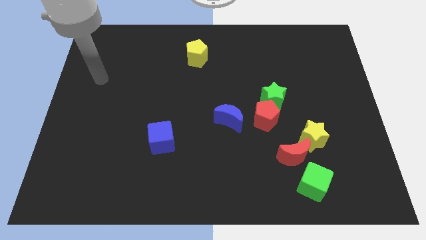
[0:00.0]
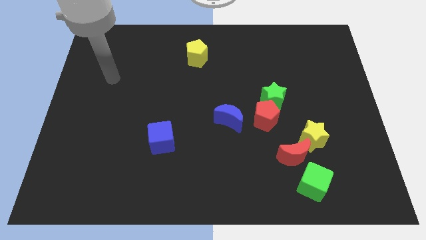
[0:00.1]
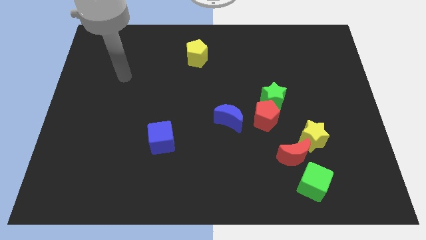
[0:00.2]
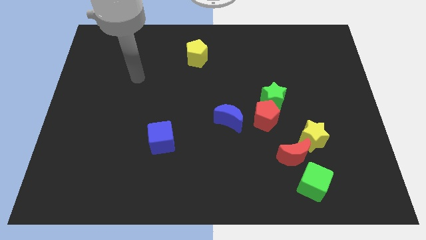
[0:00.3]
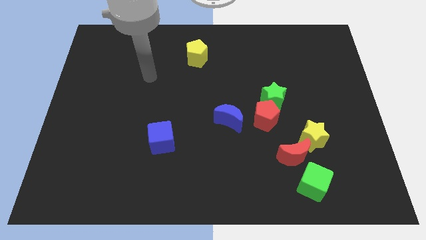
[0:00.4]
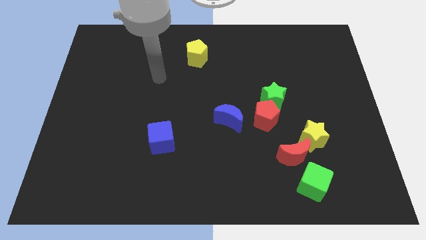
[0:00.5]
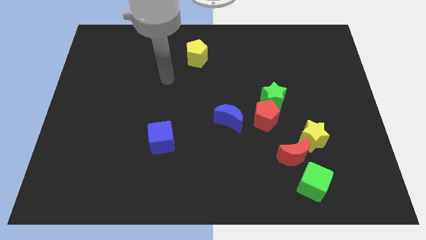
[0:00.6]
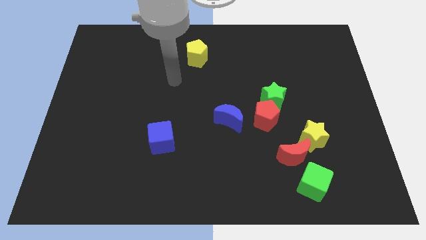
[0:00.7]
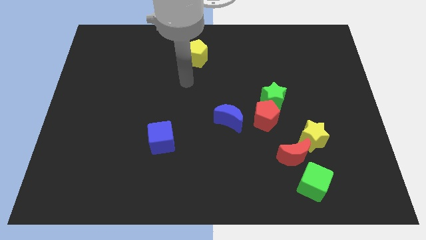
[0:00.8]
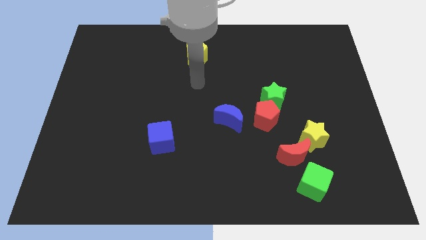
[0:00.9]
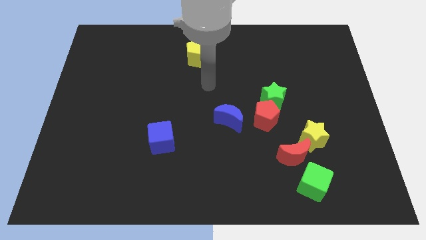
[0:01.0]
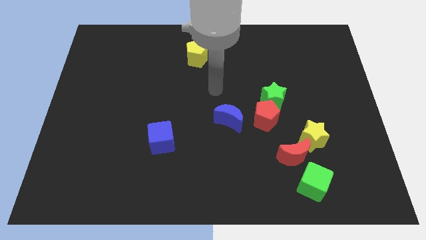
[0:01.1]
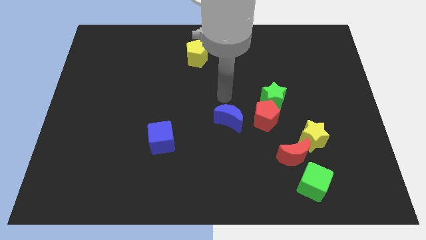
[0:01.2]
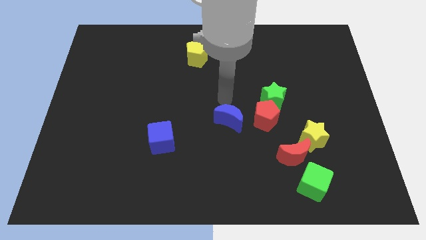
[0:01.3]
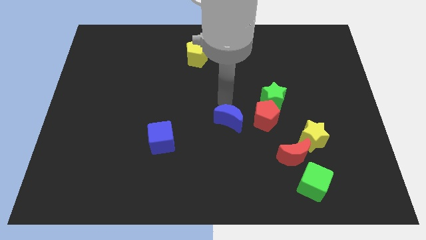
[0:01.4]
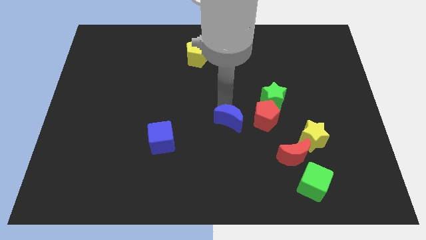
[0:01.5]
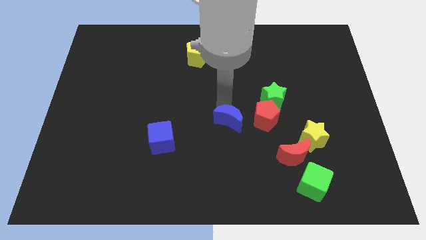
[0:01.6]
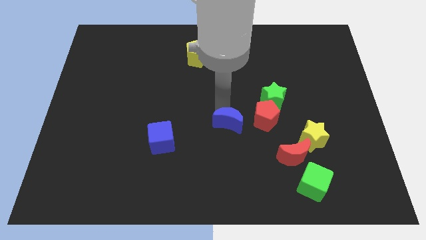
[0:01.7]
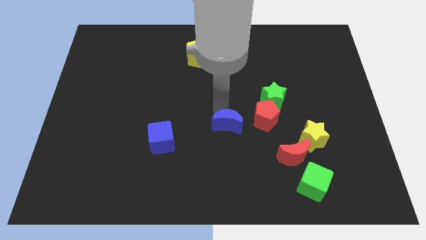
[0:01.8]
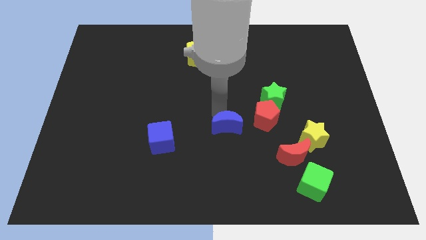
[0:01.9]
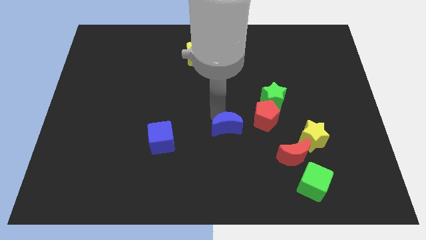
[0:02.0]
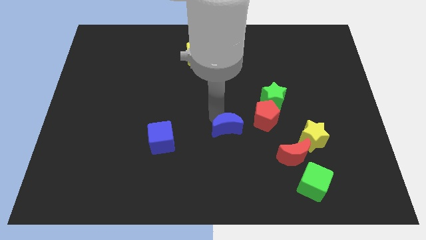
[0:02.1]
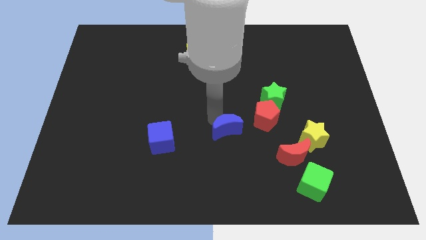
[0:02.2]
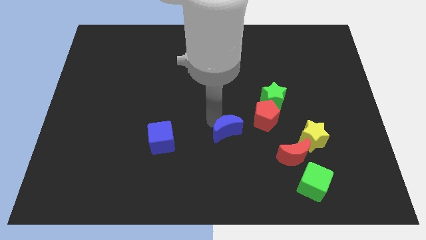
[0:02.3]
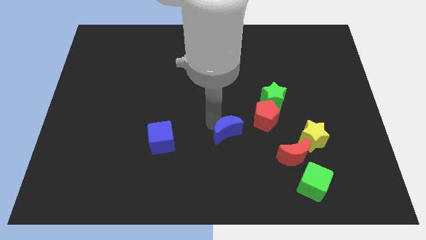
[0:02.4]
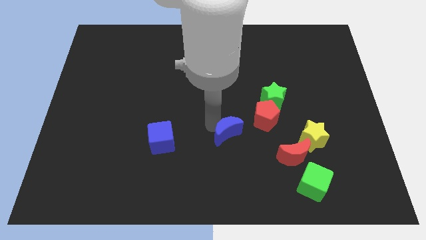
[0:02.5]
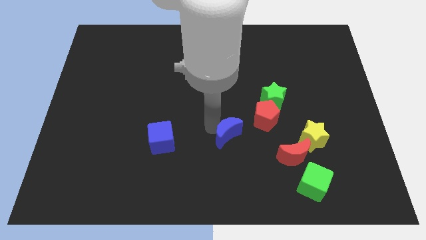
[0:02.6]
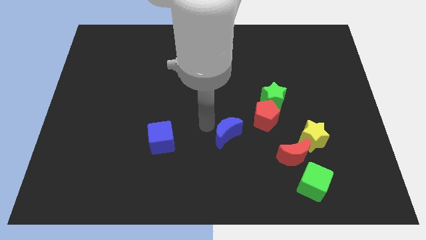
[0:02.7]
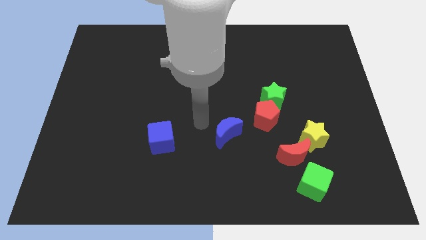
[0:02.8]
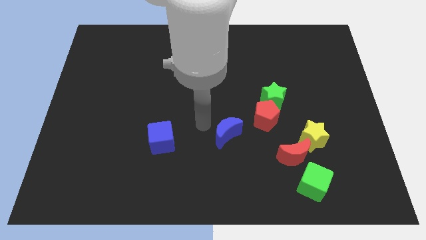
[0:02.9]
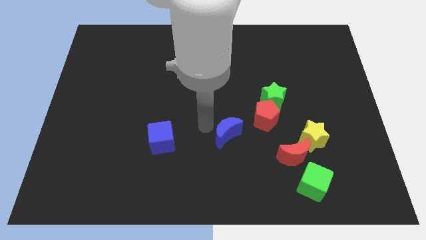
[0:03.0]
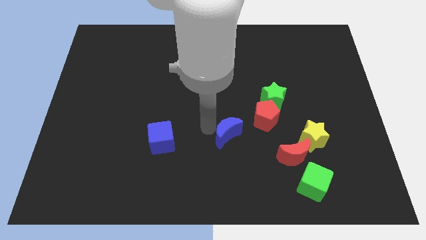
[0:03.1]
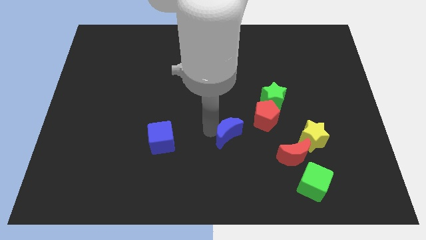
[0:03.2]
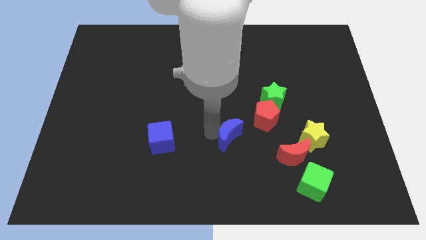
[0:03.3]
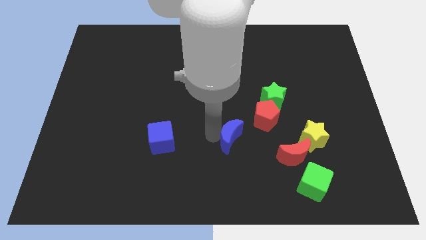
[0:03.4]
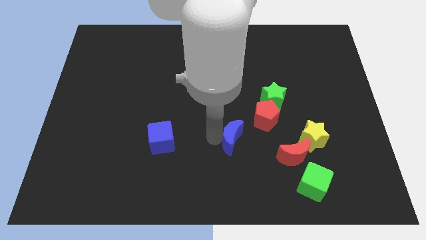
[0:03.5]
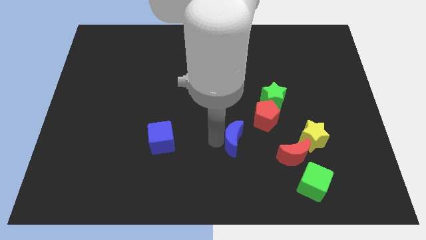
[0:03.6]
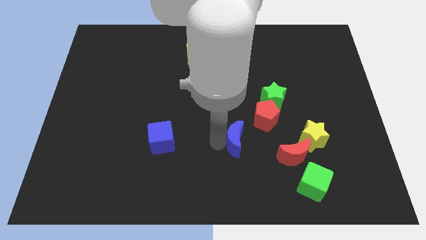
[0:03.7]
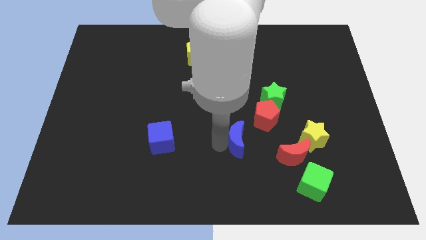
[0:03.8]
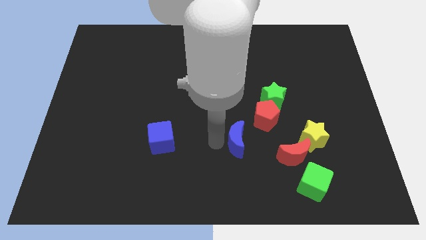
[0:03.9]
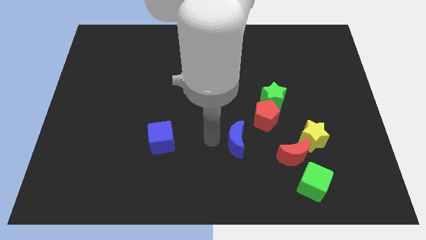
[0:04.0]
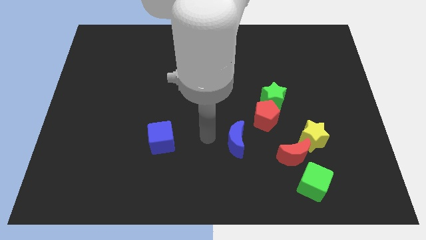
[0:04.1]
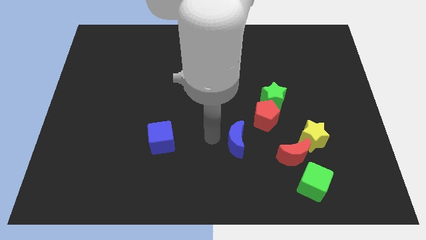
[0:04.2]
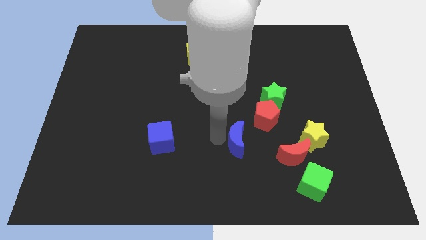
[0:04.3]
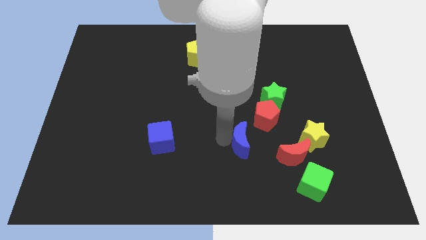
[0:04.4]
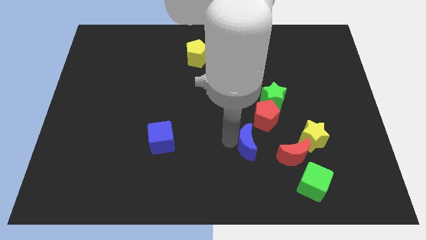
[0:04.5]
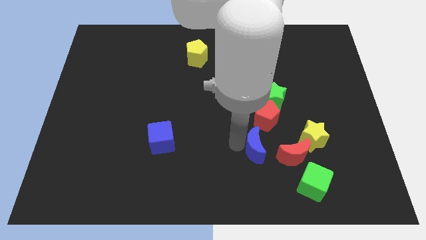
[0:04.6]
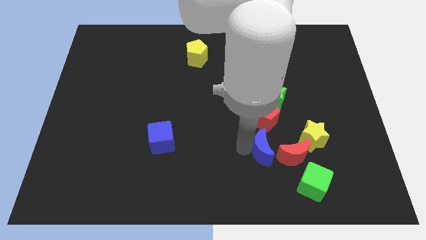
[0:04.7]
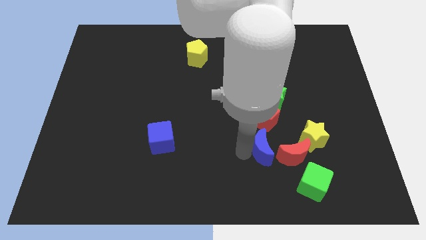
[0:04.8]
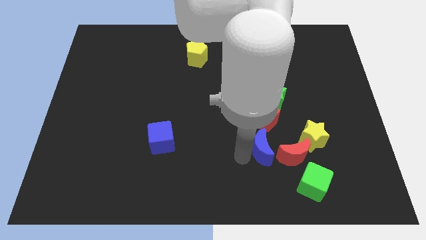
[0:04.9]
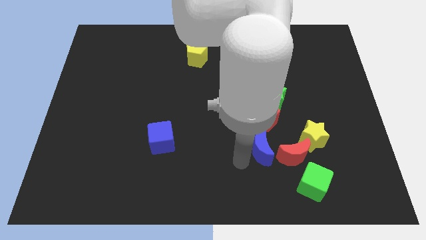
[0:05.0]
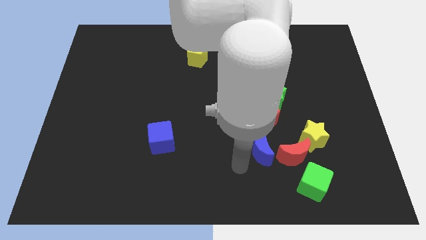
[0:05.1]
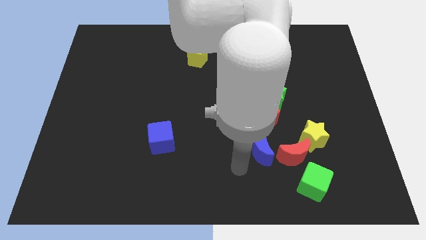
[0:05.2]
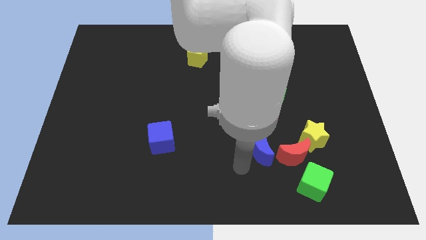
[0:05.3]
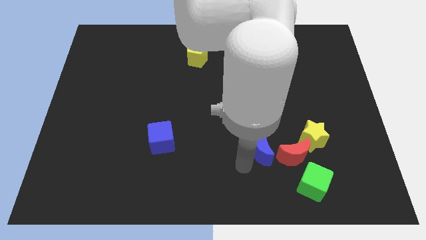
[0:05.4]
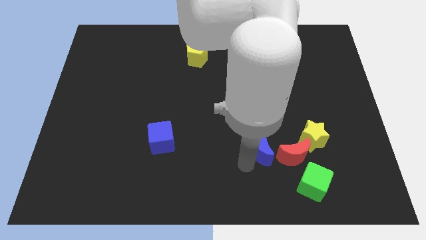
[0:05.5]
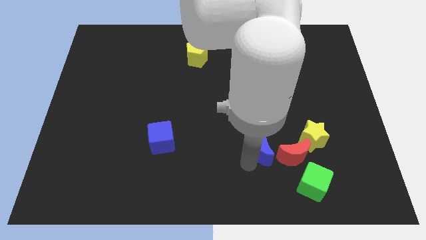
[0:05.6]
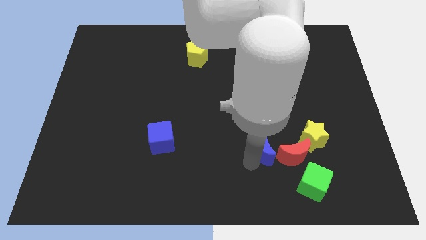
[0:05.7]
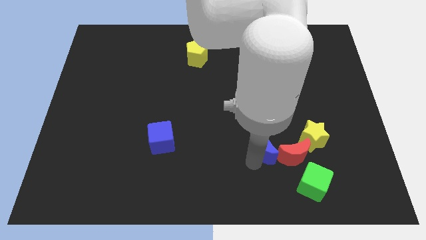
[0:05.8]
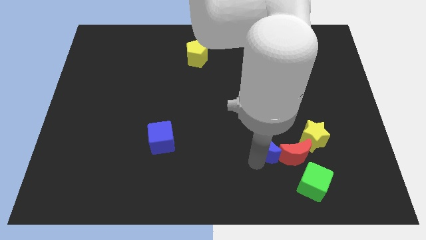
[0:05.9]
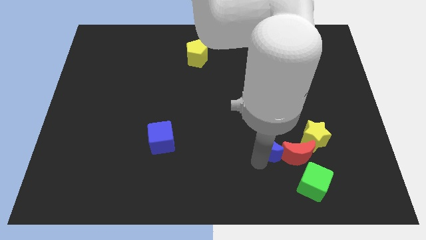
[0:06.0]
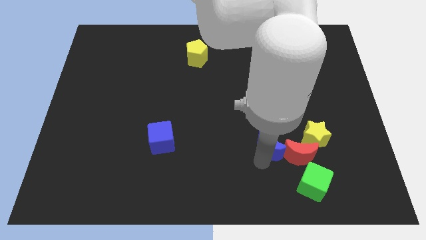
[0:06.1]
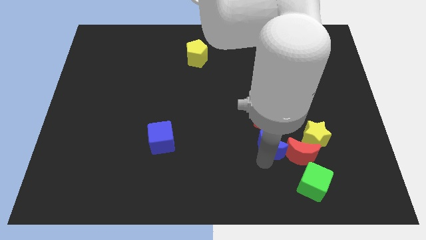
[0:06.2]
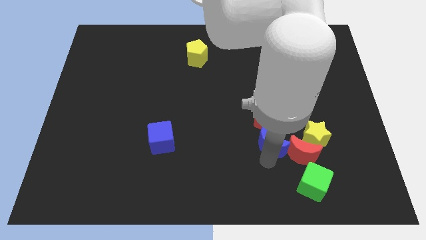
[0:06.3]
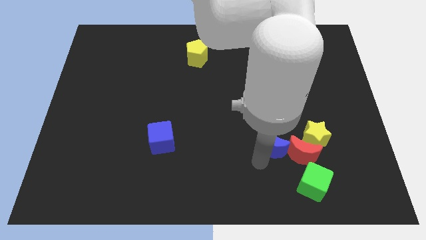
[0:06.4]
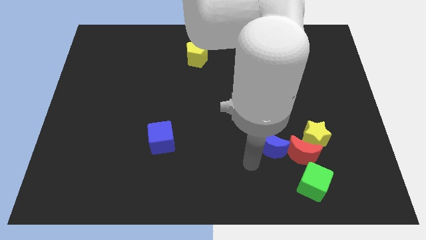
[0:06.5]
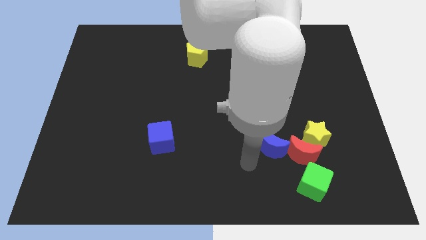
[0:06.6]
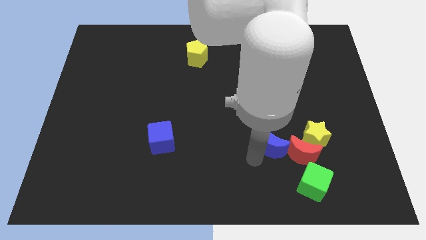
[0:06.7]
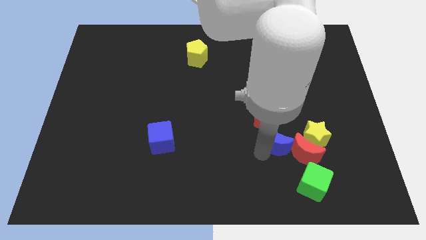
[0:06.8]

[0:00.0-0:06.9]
push the blue moon to the right slightly

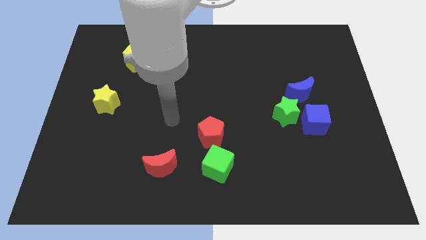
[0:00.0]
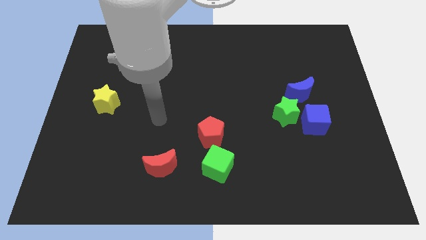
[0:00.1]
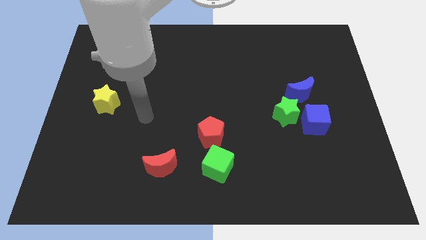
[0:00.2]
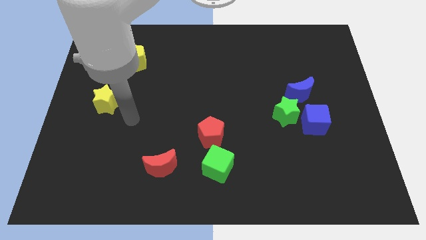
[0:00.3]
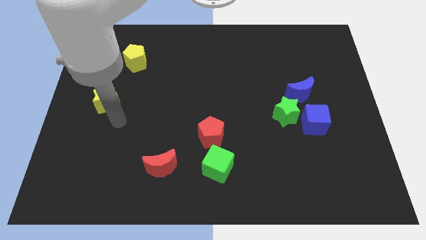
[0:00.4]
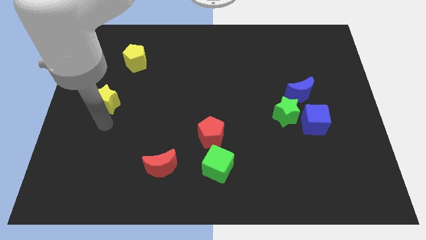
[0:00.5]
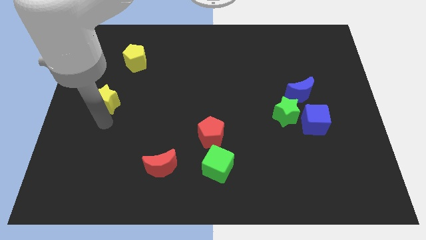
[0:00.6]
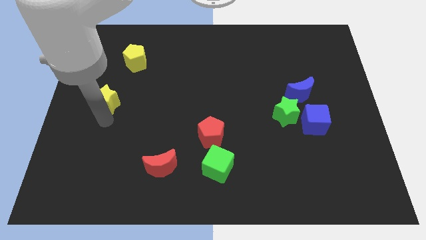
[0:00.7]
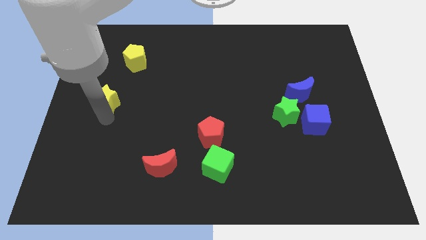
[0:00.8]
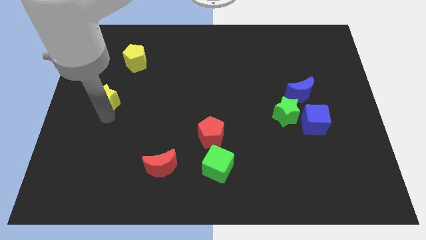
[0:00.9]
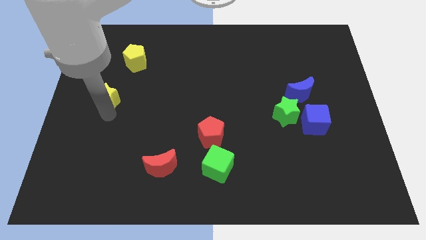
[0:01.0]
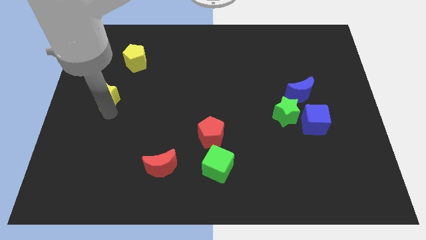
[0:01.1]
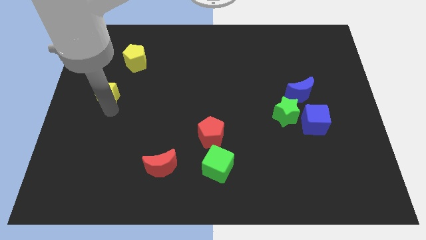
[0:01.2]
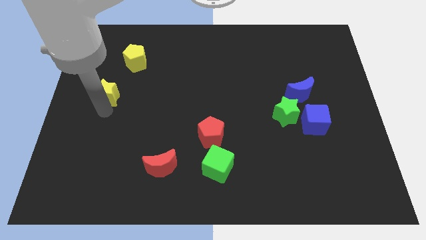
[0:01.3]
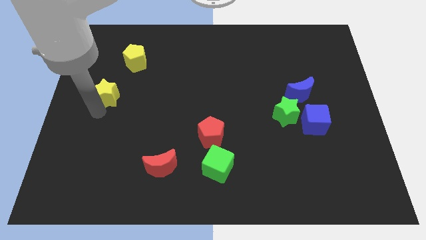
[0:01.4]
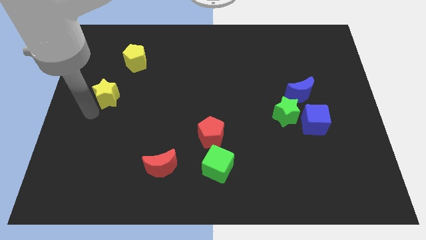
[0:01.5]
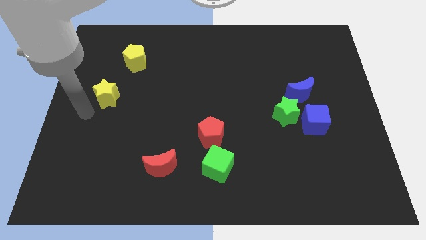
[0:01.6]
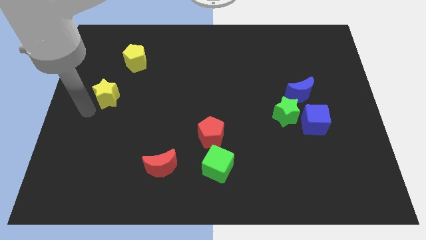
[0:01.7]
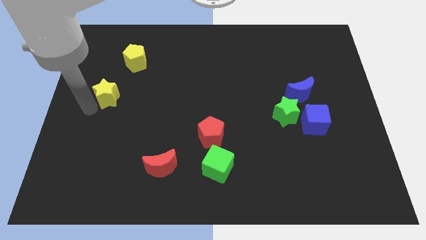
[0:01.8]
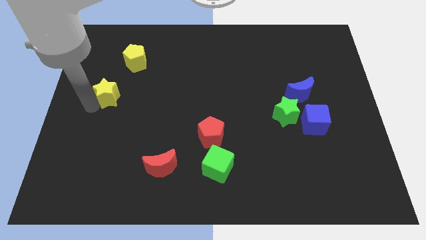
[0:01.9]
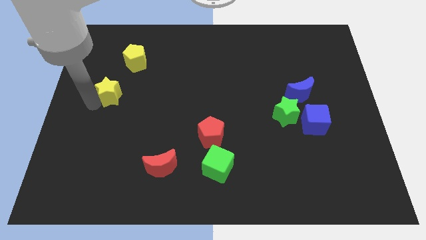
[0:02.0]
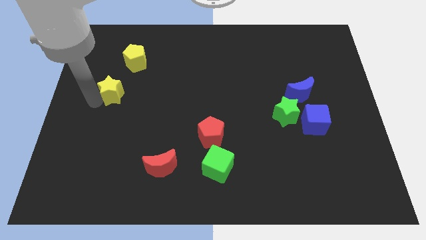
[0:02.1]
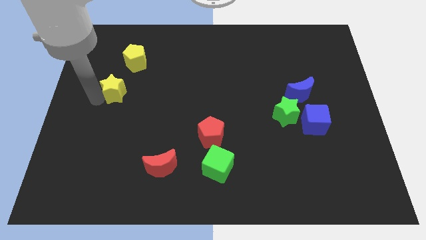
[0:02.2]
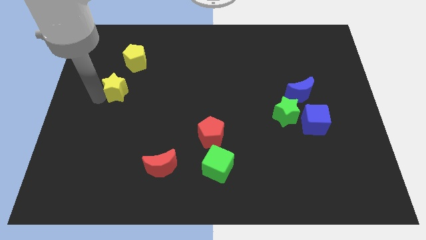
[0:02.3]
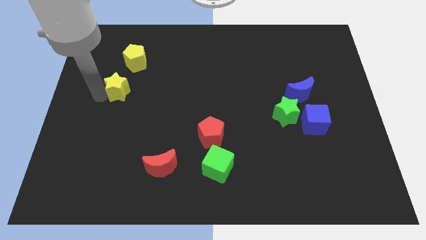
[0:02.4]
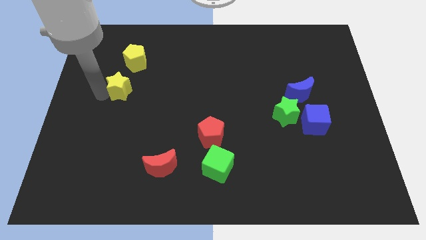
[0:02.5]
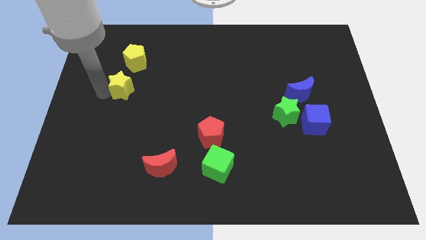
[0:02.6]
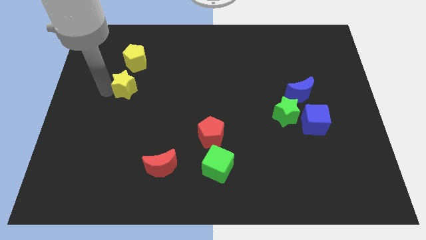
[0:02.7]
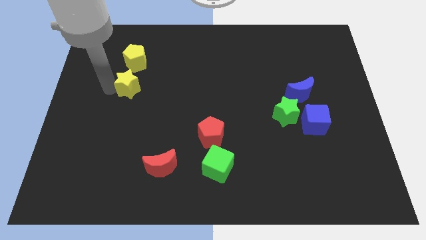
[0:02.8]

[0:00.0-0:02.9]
push the yellow star up and then right a little
